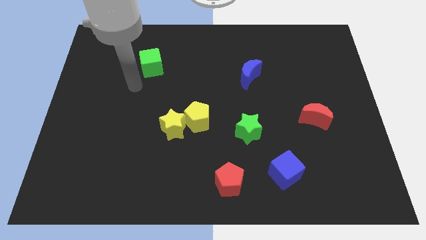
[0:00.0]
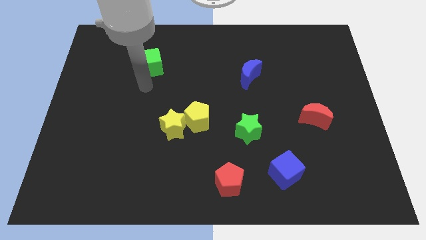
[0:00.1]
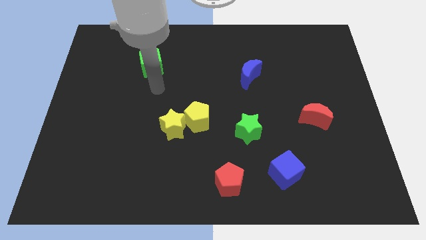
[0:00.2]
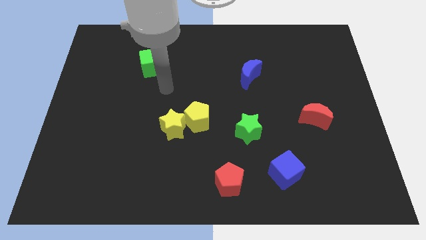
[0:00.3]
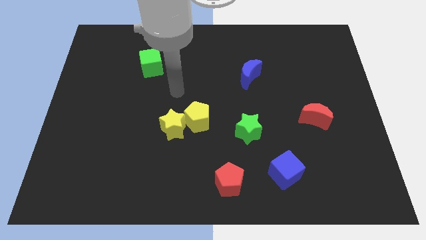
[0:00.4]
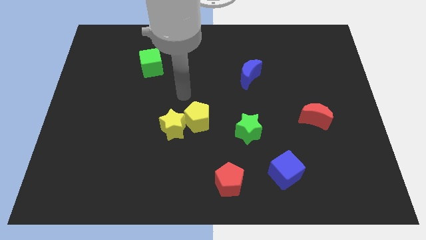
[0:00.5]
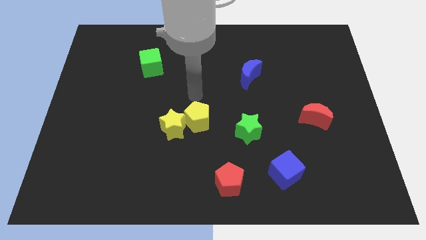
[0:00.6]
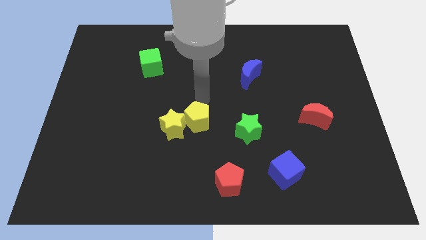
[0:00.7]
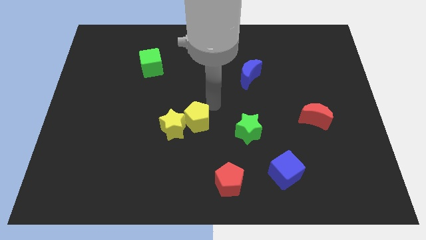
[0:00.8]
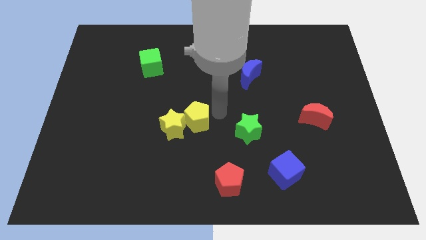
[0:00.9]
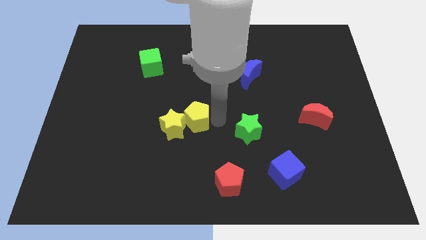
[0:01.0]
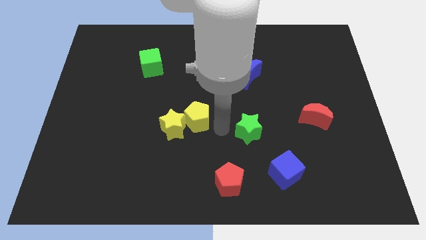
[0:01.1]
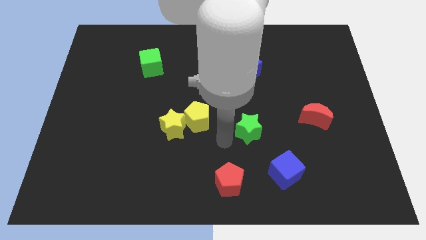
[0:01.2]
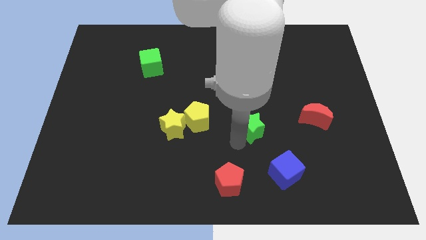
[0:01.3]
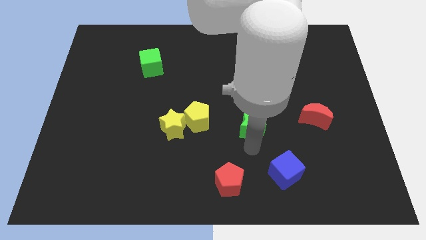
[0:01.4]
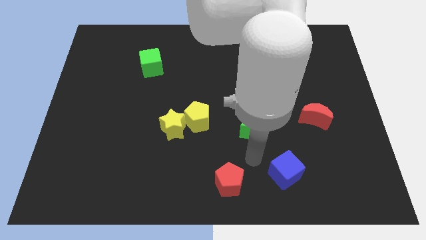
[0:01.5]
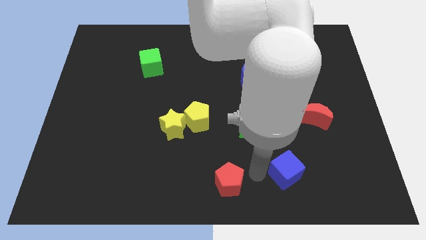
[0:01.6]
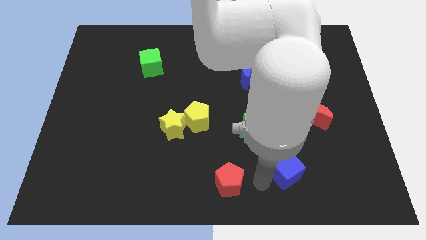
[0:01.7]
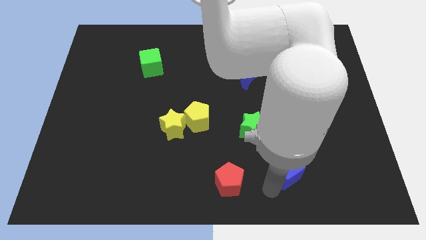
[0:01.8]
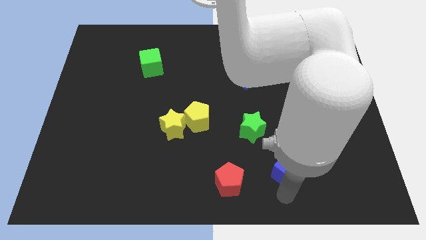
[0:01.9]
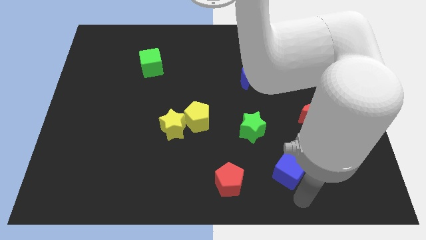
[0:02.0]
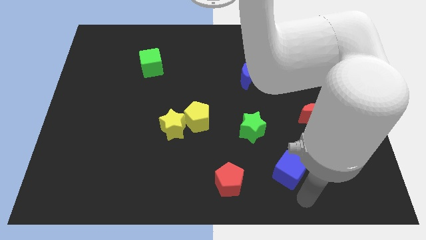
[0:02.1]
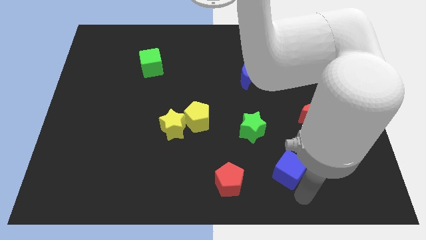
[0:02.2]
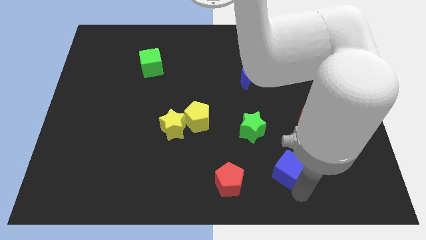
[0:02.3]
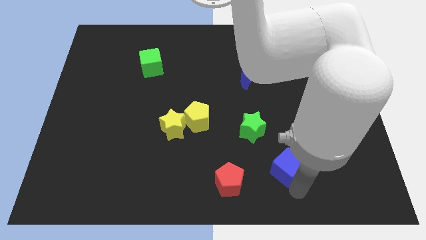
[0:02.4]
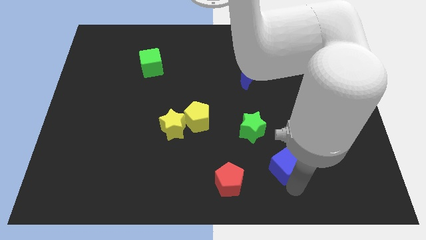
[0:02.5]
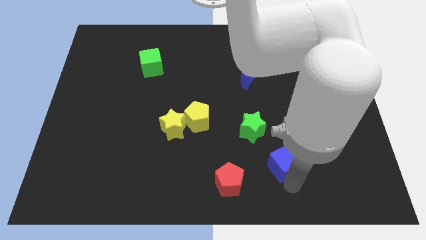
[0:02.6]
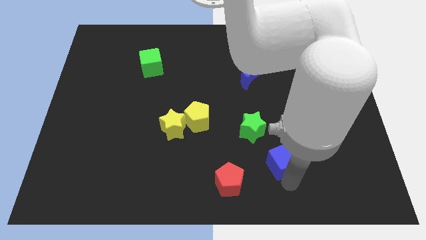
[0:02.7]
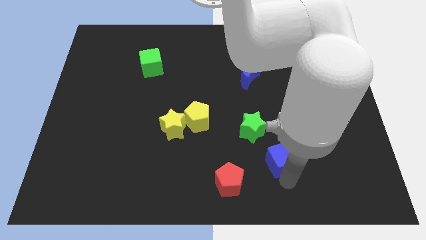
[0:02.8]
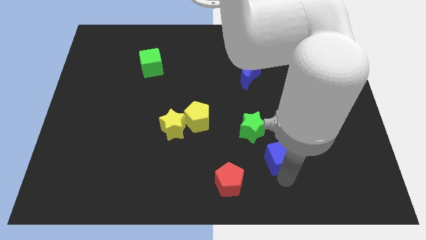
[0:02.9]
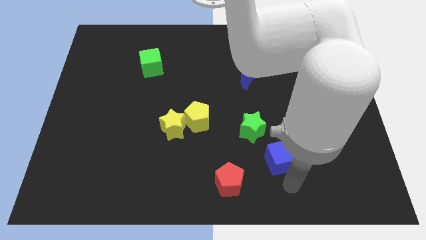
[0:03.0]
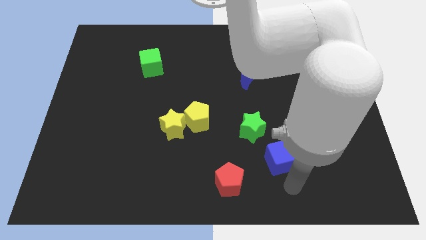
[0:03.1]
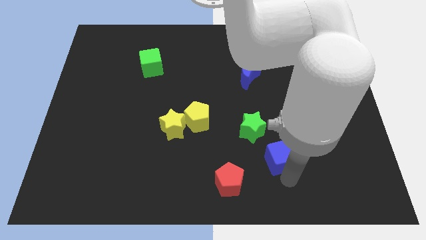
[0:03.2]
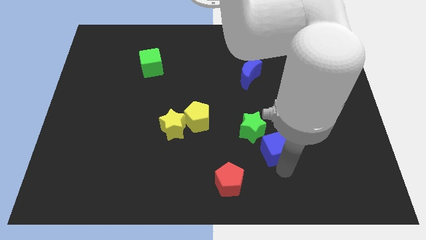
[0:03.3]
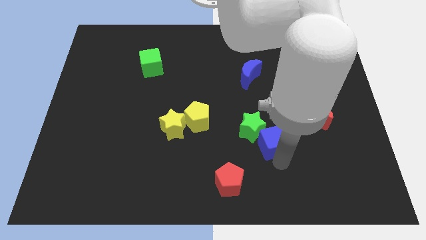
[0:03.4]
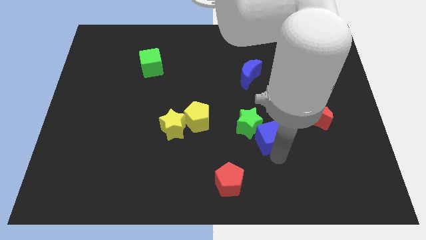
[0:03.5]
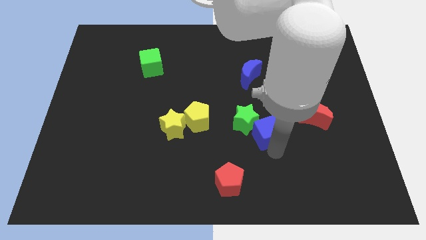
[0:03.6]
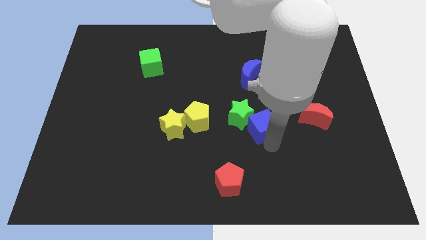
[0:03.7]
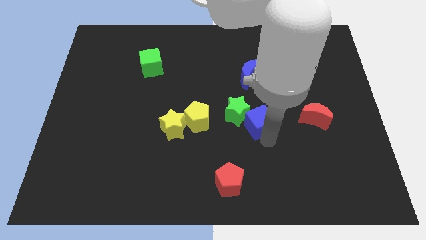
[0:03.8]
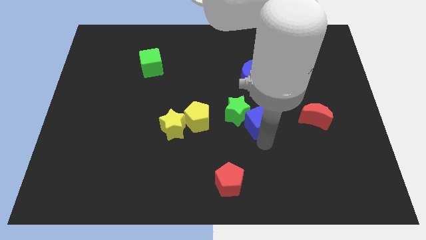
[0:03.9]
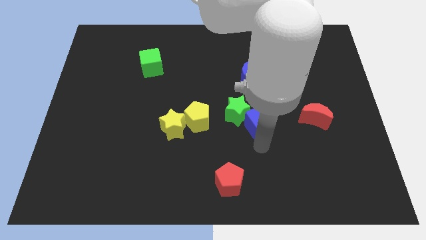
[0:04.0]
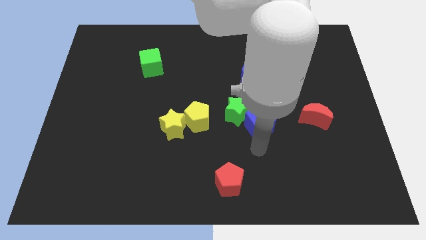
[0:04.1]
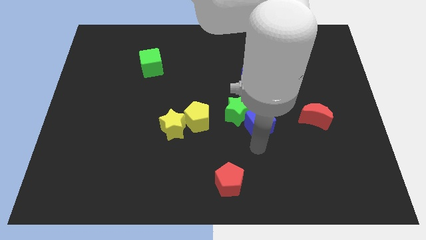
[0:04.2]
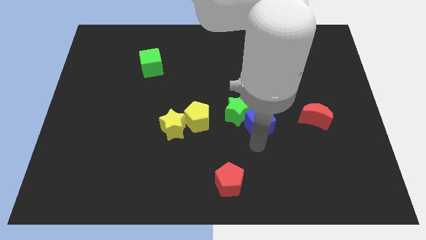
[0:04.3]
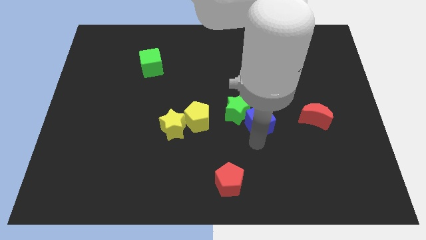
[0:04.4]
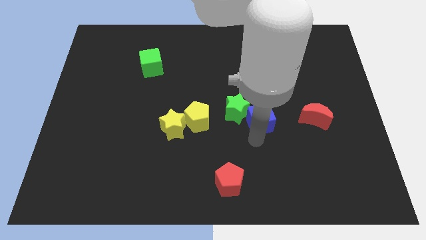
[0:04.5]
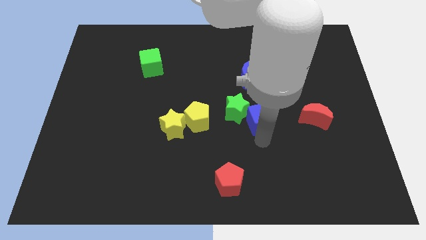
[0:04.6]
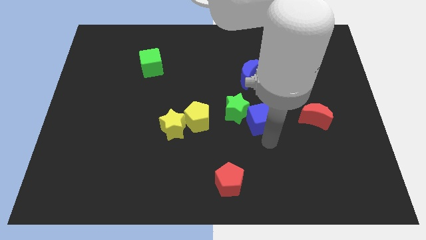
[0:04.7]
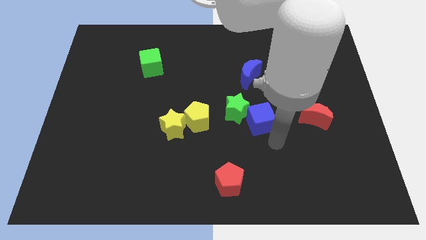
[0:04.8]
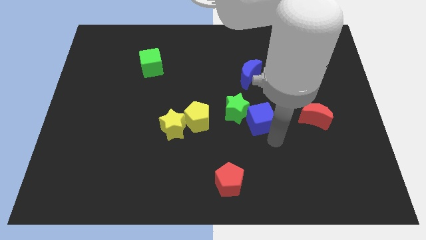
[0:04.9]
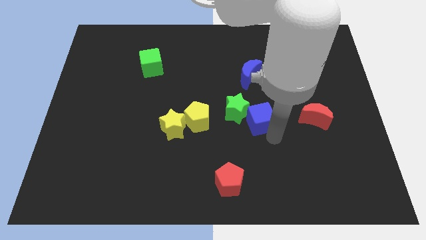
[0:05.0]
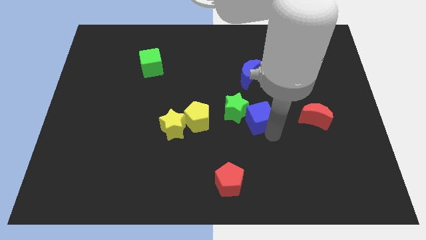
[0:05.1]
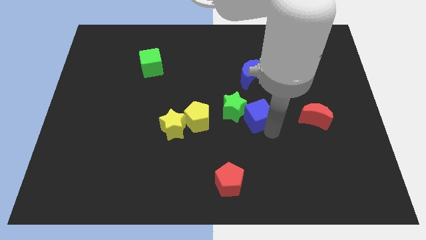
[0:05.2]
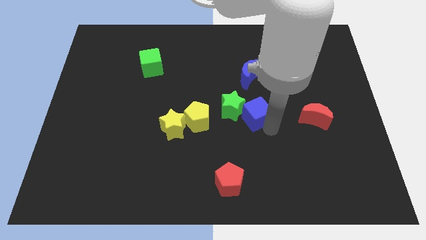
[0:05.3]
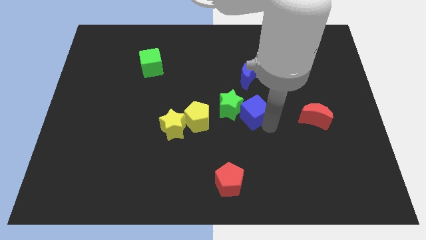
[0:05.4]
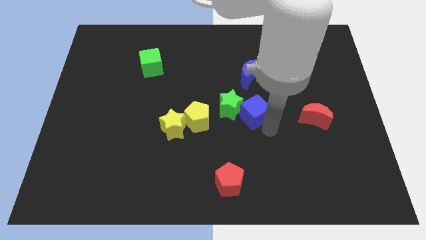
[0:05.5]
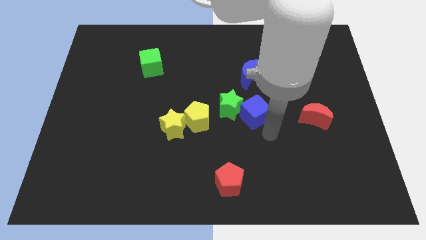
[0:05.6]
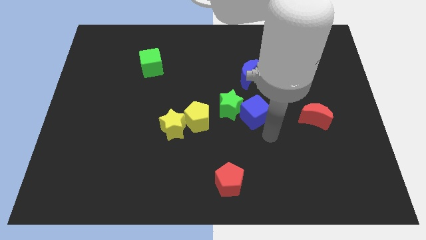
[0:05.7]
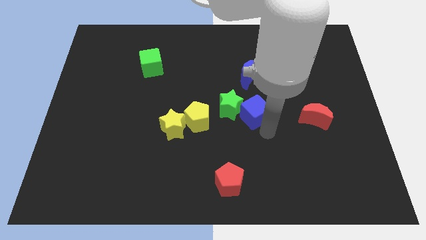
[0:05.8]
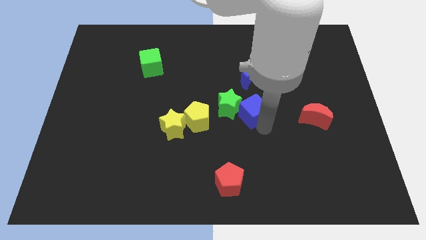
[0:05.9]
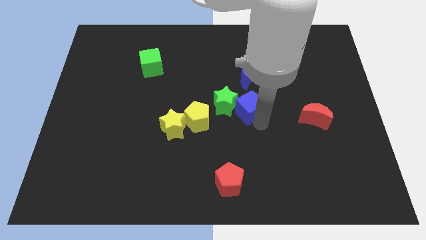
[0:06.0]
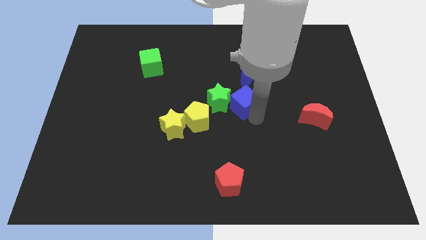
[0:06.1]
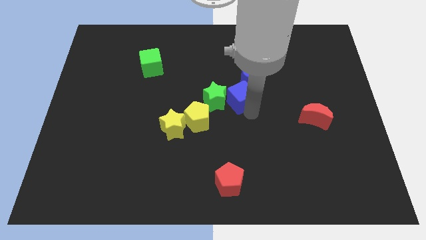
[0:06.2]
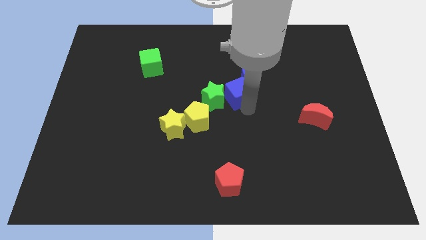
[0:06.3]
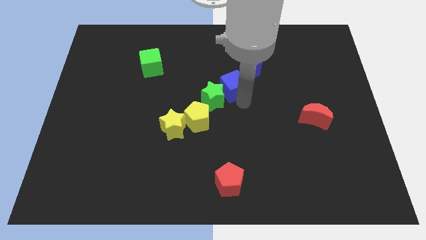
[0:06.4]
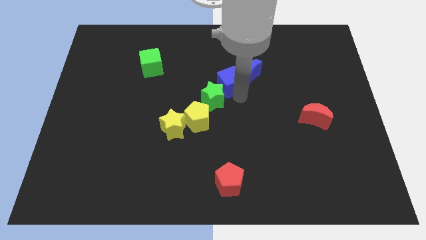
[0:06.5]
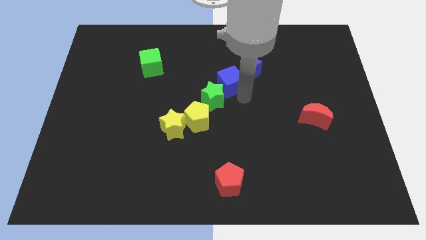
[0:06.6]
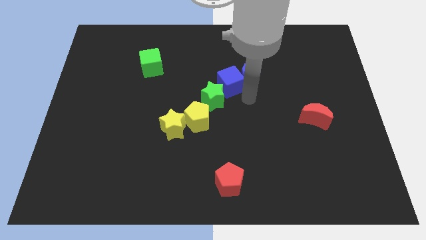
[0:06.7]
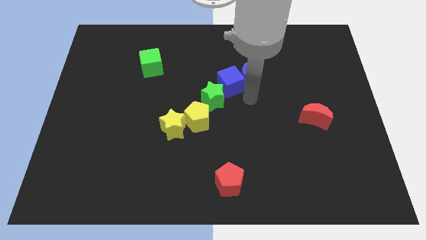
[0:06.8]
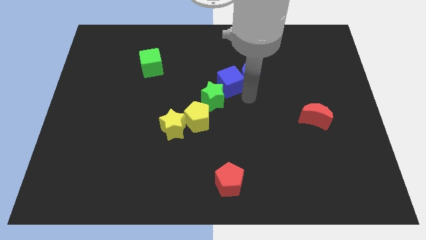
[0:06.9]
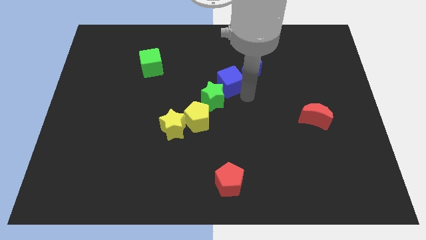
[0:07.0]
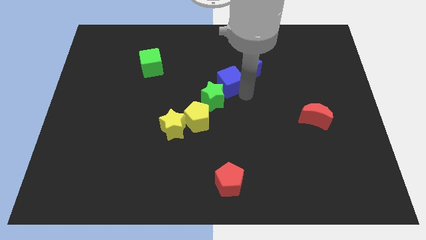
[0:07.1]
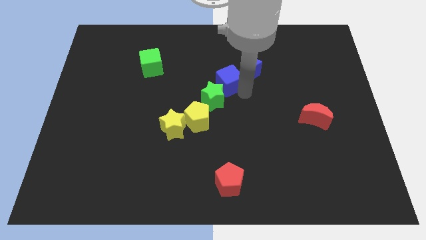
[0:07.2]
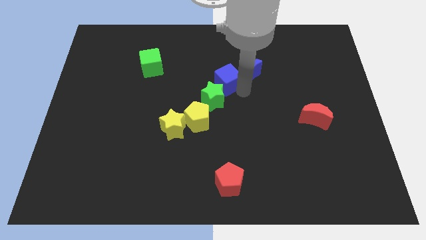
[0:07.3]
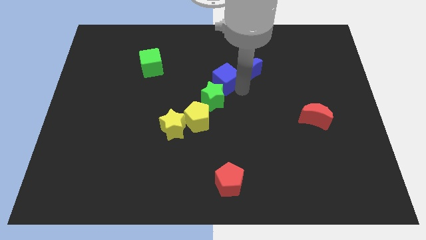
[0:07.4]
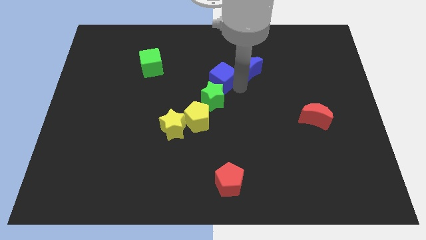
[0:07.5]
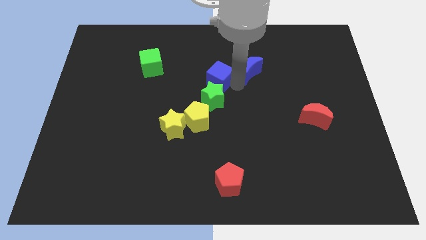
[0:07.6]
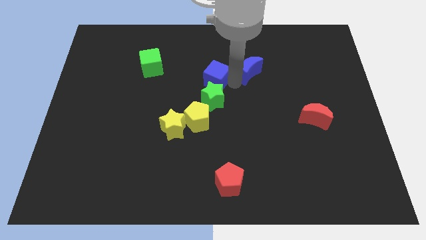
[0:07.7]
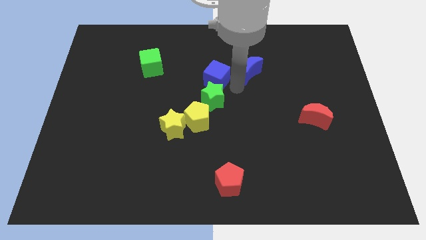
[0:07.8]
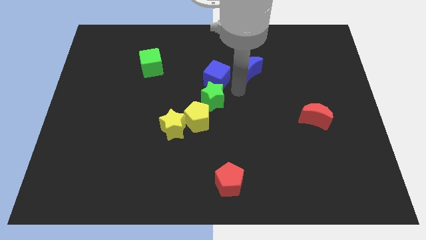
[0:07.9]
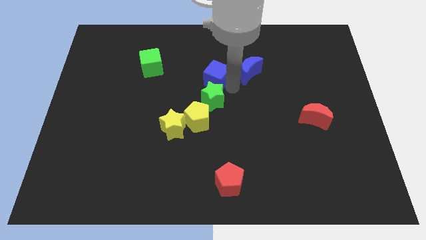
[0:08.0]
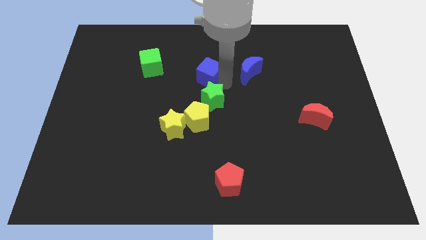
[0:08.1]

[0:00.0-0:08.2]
slide the blue cube to the right of the green cube
